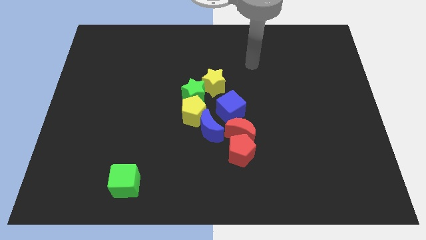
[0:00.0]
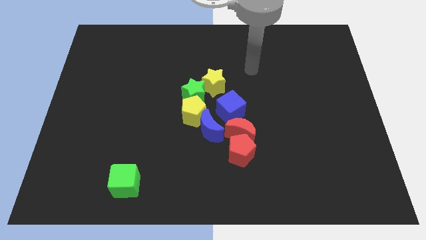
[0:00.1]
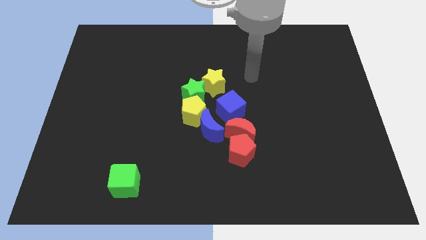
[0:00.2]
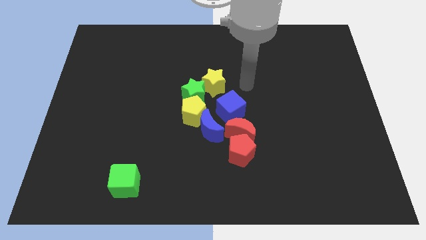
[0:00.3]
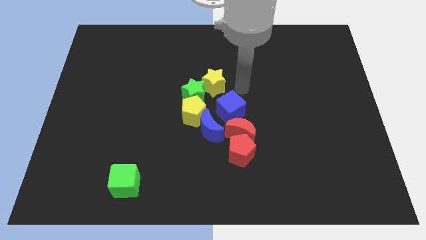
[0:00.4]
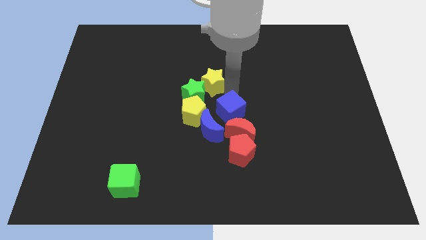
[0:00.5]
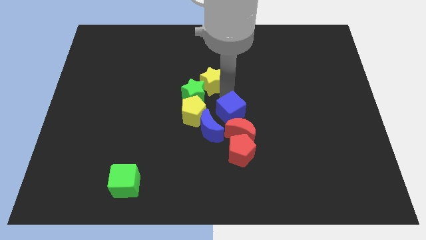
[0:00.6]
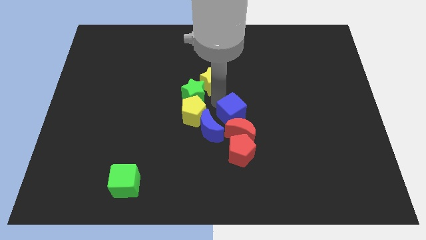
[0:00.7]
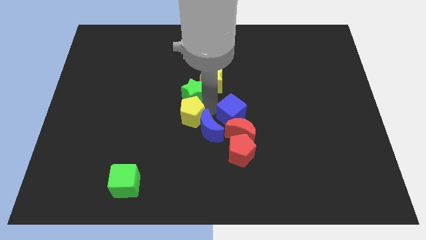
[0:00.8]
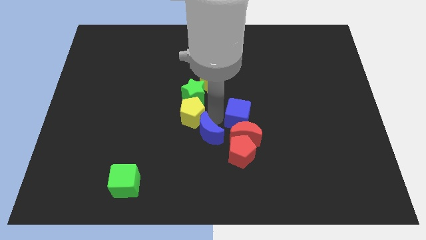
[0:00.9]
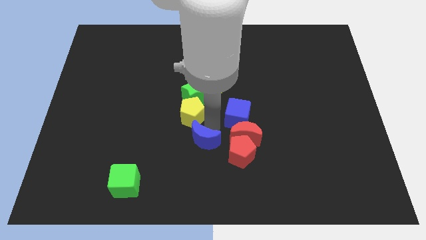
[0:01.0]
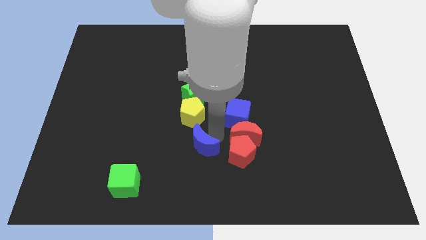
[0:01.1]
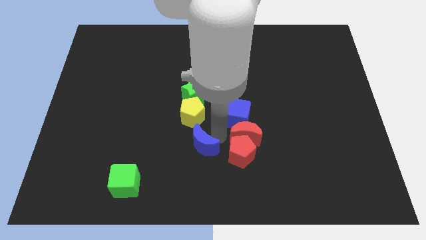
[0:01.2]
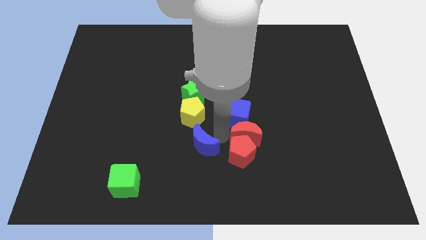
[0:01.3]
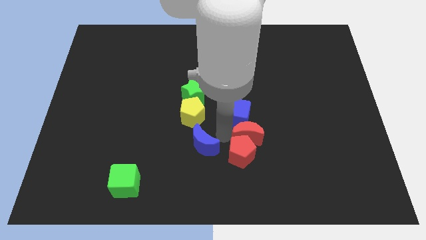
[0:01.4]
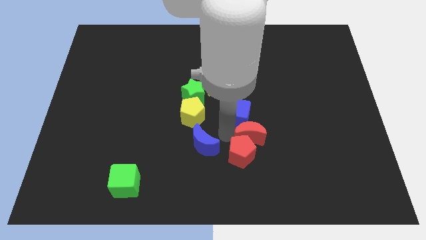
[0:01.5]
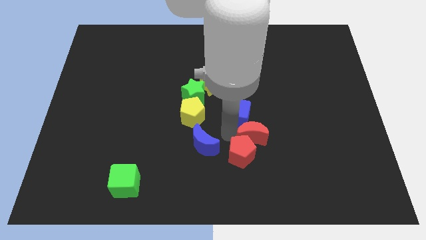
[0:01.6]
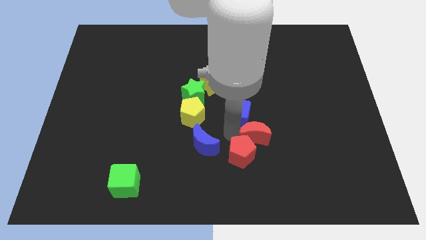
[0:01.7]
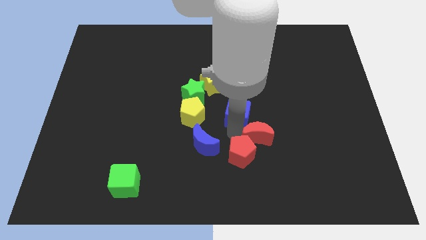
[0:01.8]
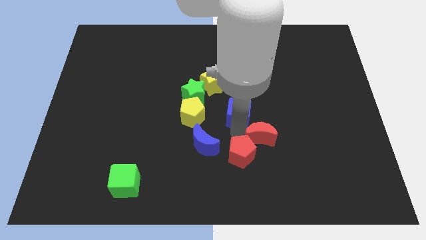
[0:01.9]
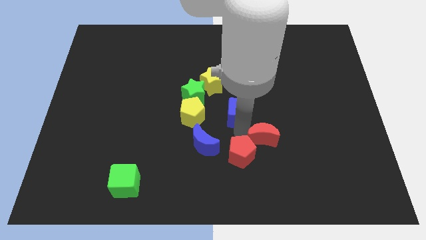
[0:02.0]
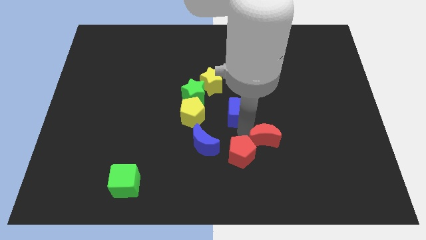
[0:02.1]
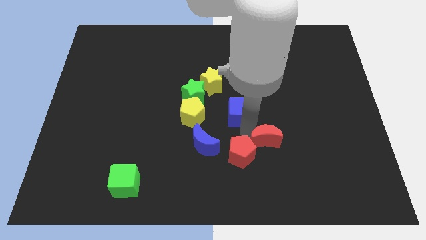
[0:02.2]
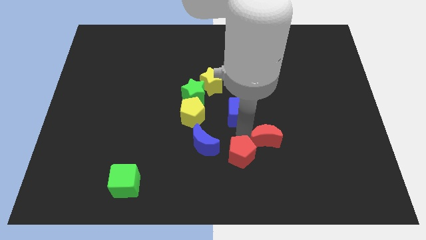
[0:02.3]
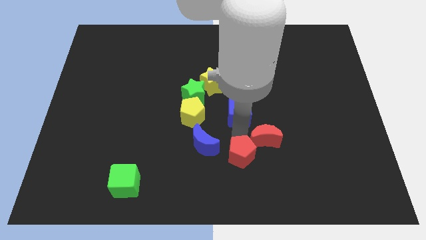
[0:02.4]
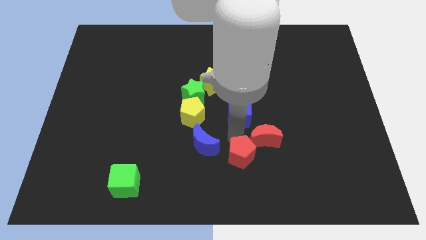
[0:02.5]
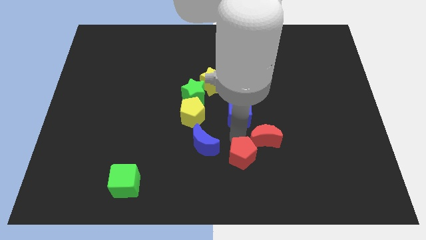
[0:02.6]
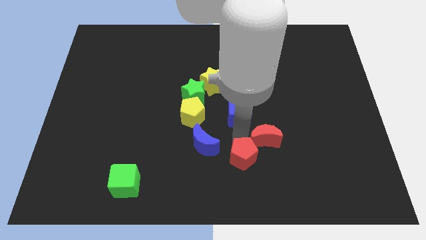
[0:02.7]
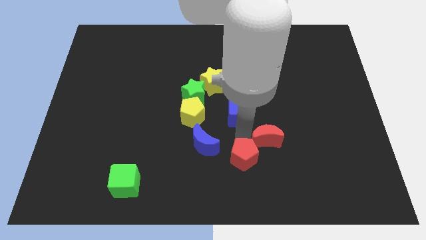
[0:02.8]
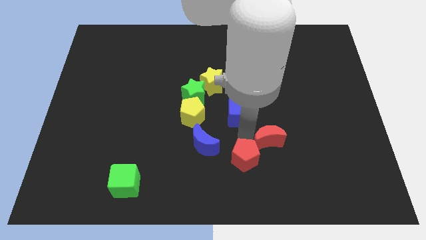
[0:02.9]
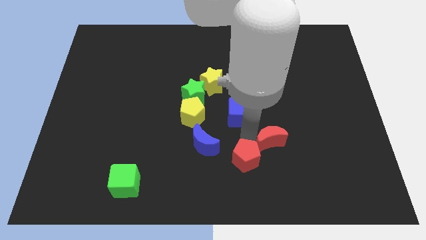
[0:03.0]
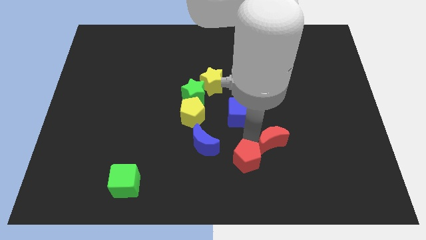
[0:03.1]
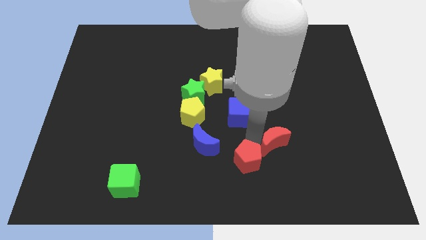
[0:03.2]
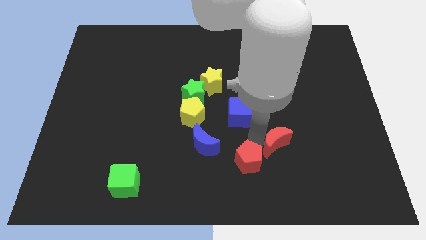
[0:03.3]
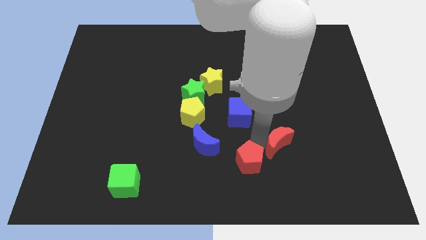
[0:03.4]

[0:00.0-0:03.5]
pull the red moon apart from the clump

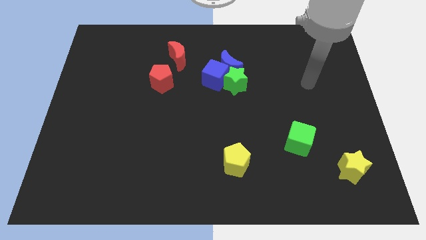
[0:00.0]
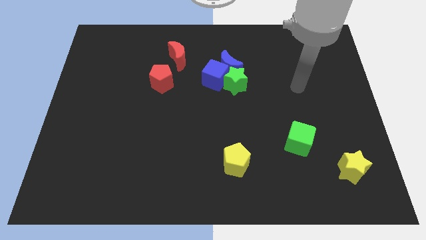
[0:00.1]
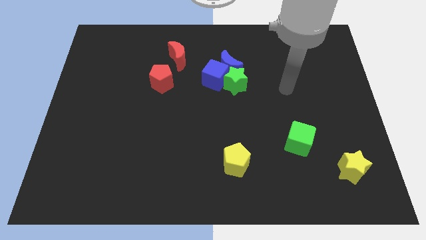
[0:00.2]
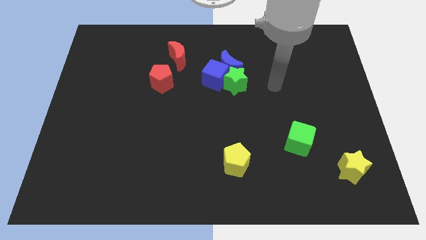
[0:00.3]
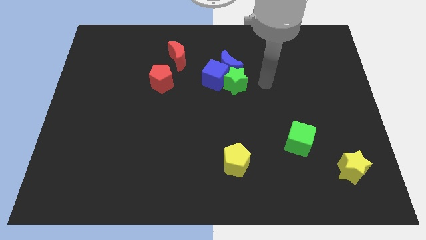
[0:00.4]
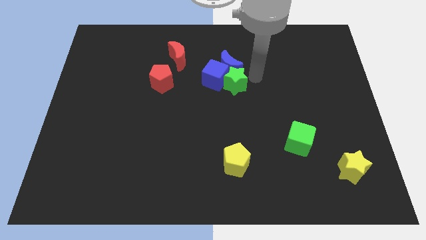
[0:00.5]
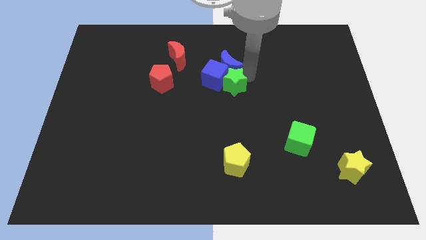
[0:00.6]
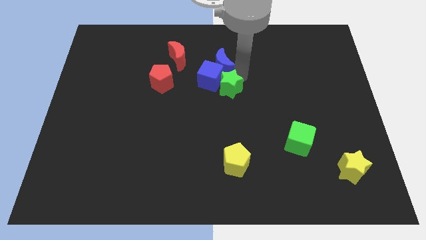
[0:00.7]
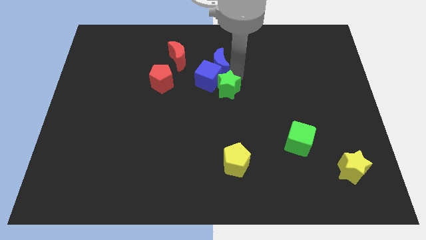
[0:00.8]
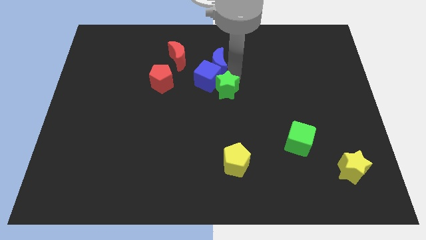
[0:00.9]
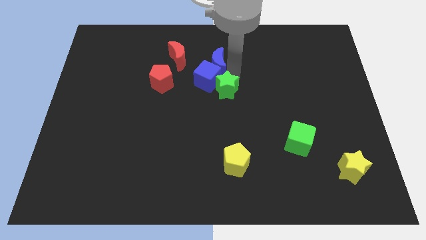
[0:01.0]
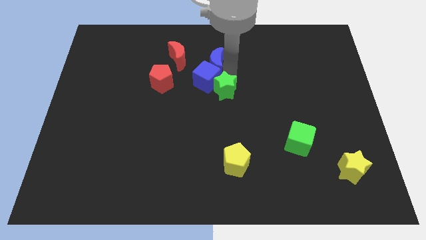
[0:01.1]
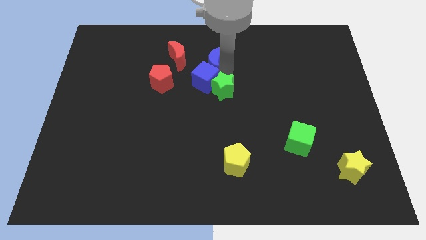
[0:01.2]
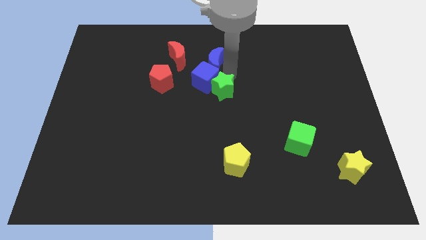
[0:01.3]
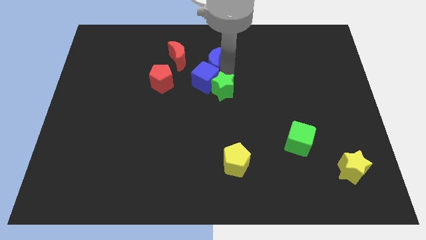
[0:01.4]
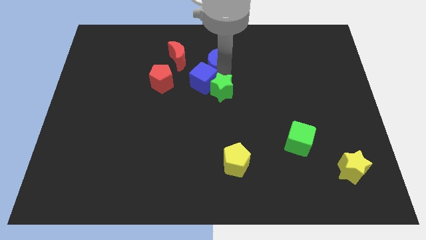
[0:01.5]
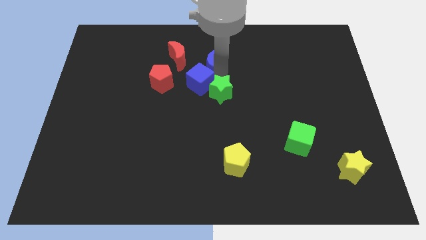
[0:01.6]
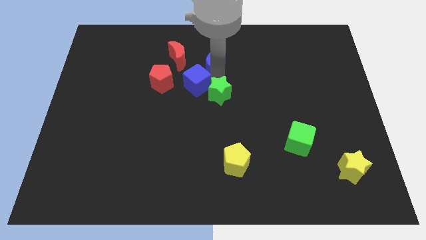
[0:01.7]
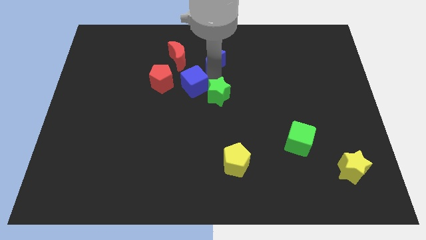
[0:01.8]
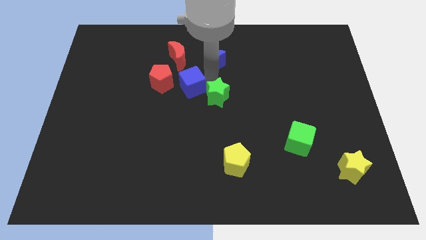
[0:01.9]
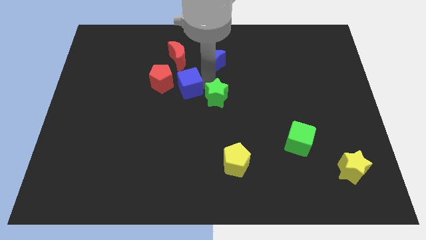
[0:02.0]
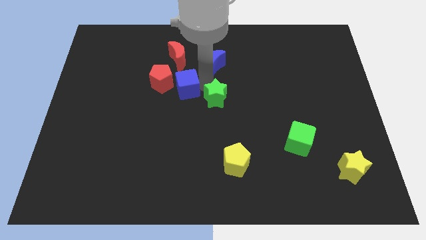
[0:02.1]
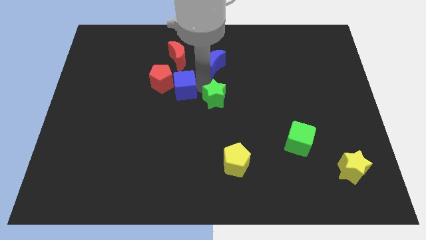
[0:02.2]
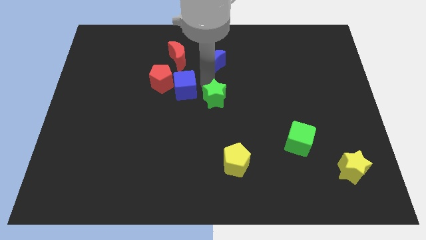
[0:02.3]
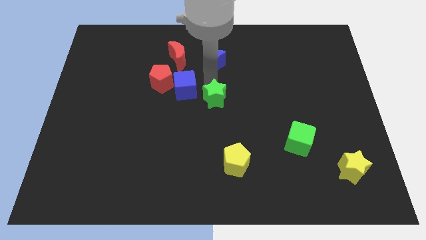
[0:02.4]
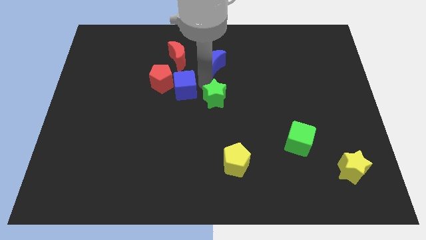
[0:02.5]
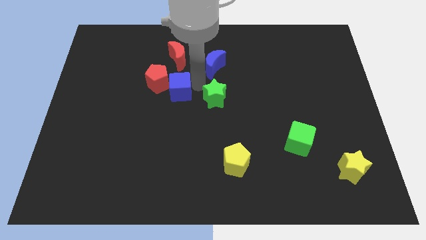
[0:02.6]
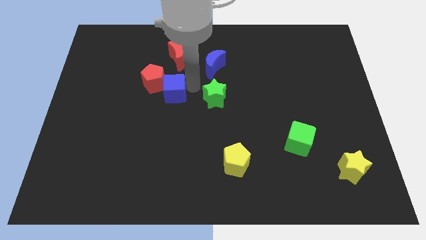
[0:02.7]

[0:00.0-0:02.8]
move the blue cube away from the blue moon and green star

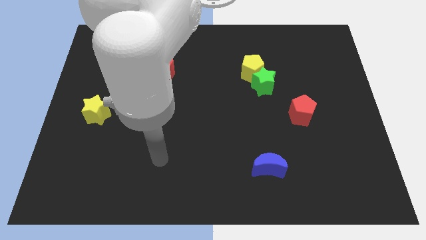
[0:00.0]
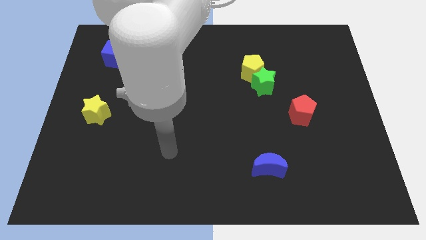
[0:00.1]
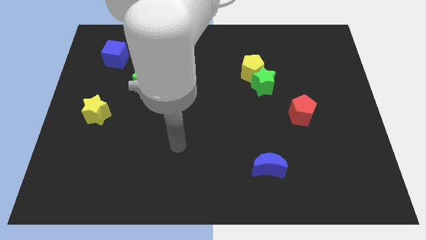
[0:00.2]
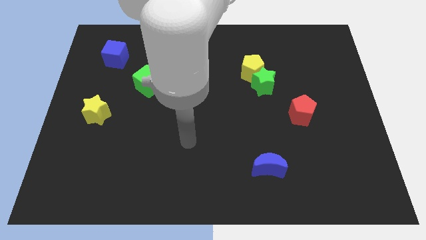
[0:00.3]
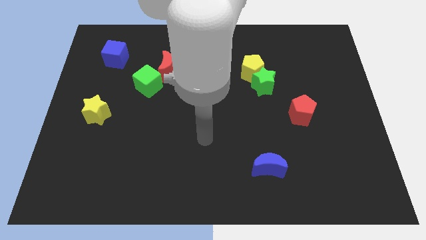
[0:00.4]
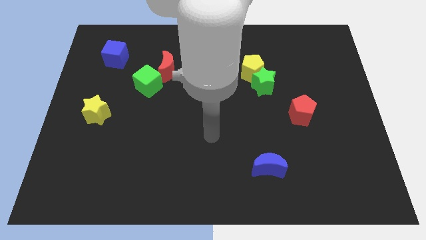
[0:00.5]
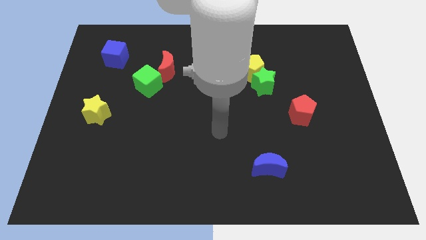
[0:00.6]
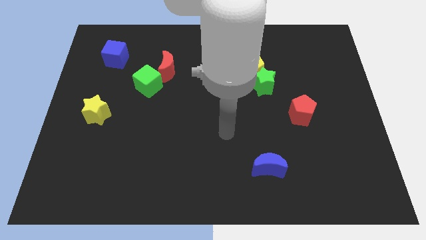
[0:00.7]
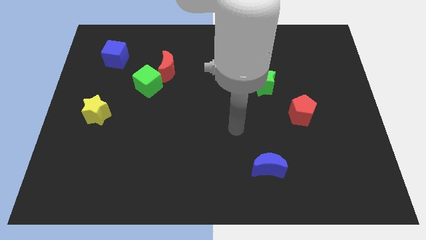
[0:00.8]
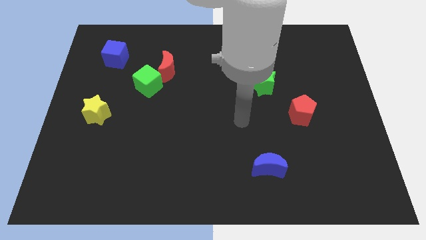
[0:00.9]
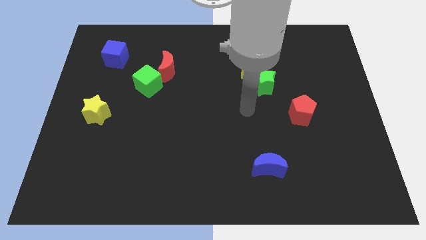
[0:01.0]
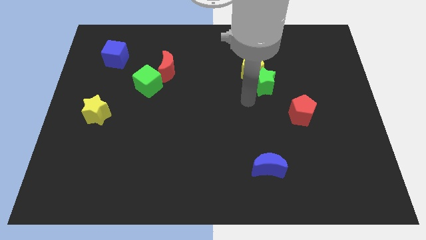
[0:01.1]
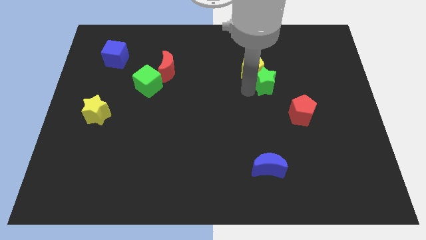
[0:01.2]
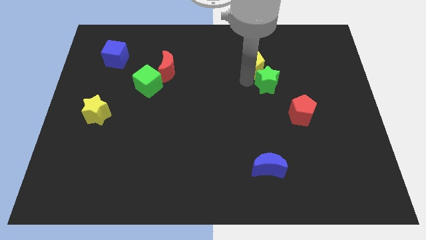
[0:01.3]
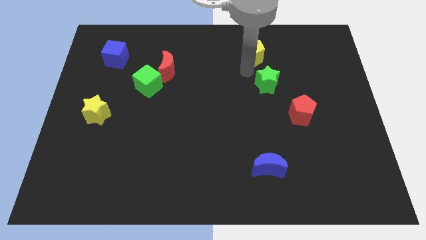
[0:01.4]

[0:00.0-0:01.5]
separate the green star from the yellow pentagon

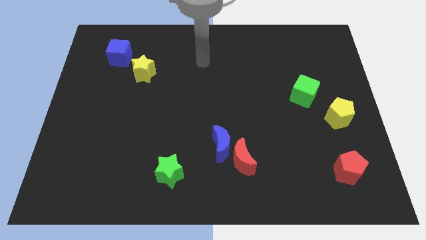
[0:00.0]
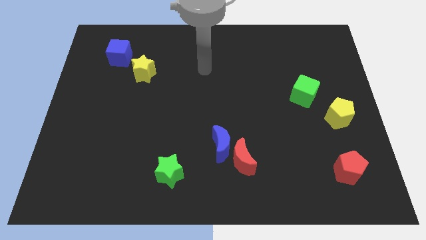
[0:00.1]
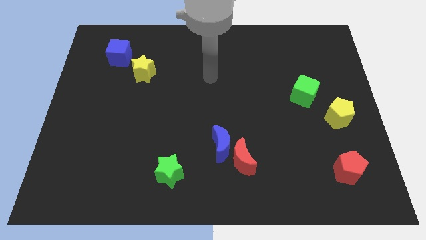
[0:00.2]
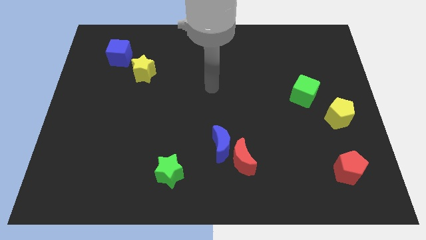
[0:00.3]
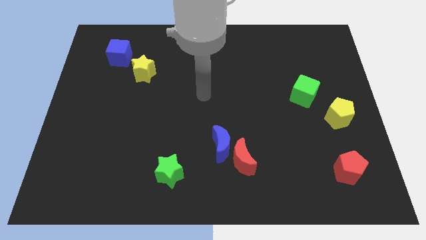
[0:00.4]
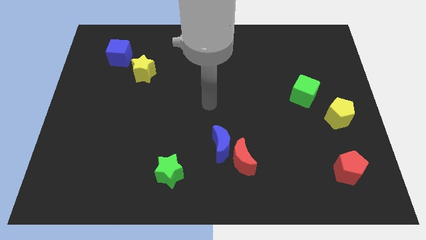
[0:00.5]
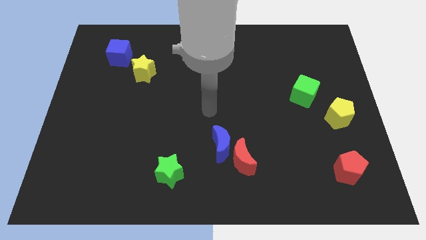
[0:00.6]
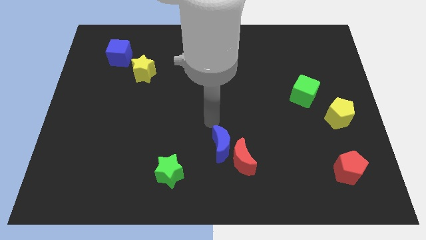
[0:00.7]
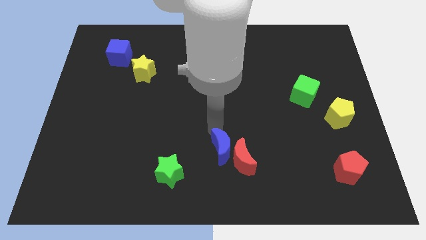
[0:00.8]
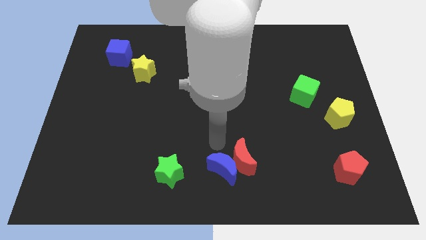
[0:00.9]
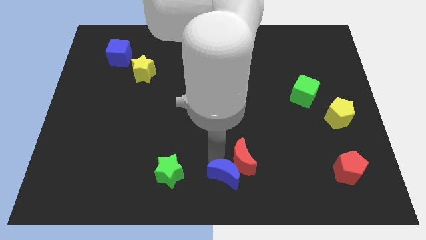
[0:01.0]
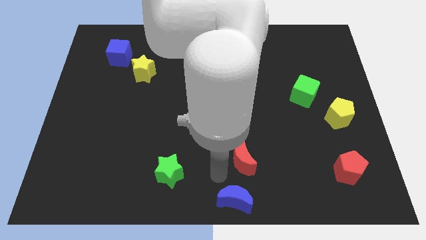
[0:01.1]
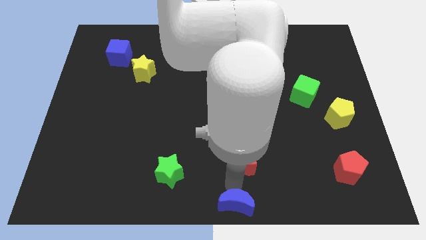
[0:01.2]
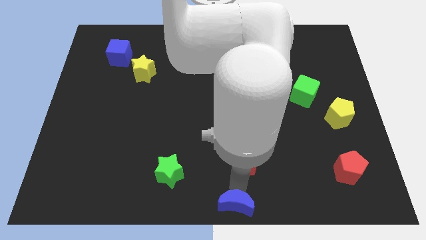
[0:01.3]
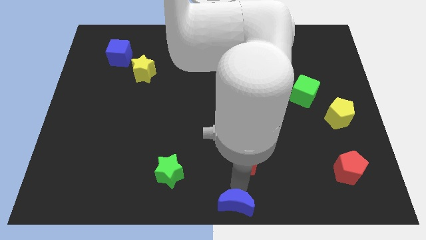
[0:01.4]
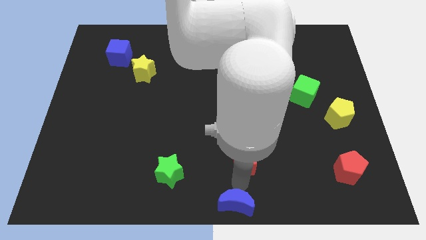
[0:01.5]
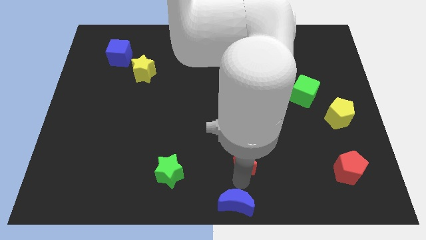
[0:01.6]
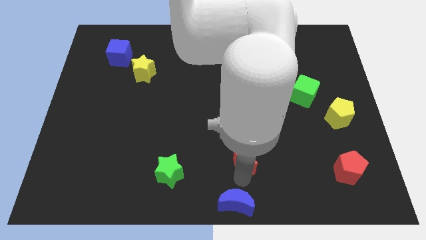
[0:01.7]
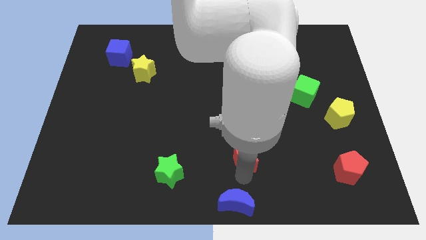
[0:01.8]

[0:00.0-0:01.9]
pull the red moon apart from the blue moon
